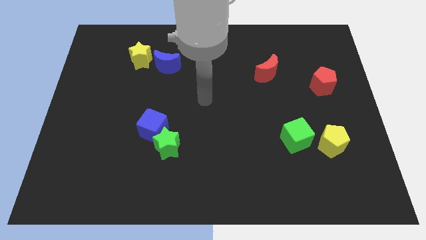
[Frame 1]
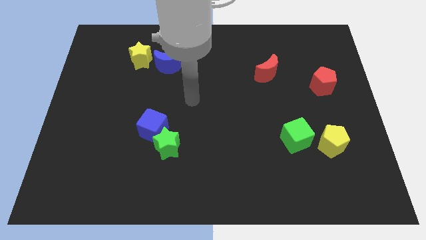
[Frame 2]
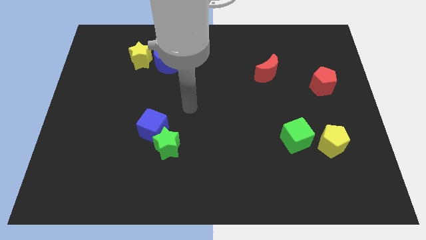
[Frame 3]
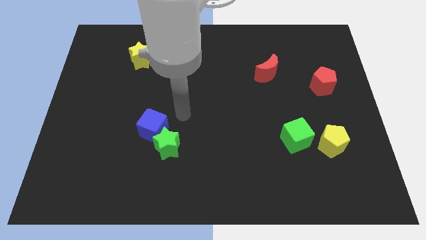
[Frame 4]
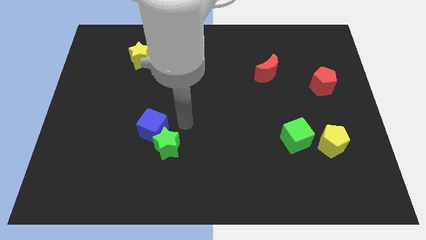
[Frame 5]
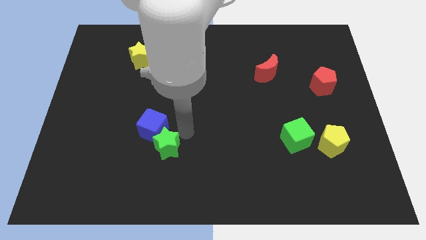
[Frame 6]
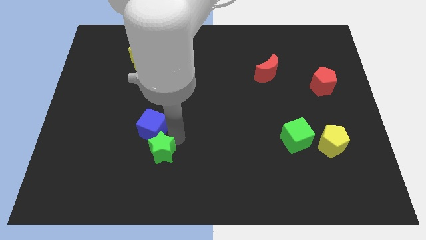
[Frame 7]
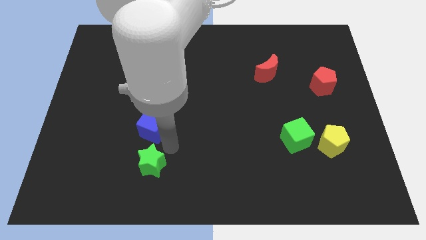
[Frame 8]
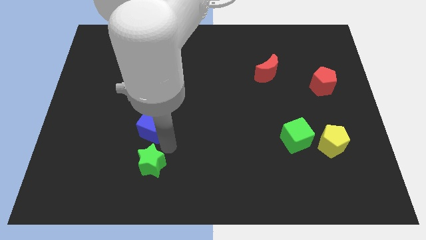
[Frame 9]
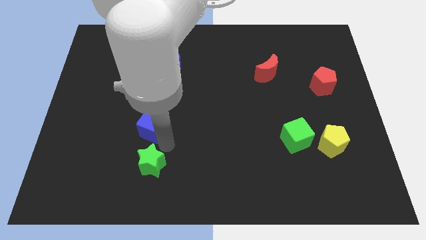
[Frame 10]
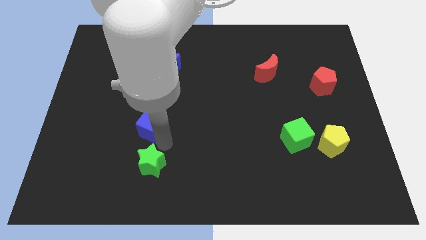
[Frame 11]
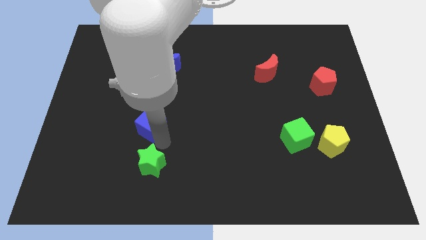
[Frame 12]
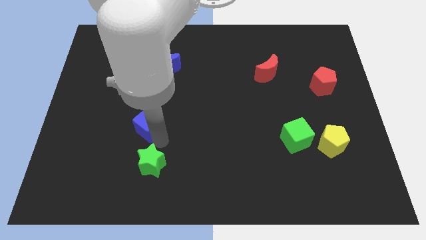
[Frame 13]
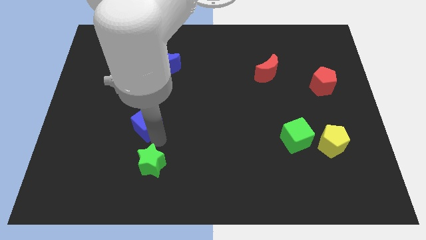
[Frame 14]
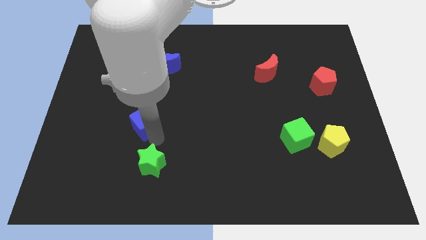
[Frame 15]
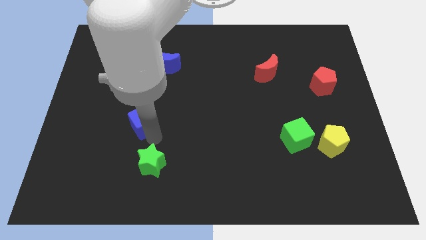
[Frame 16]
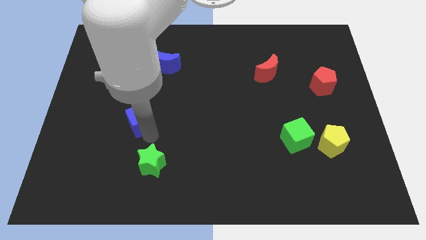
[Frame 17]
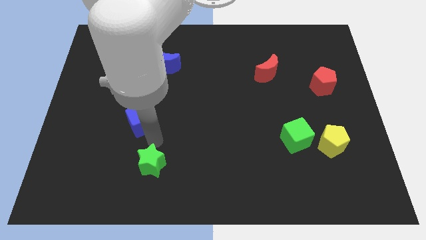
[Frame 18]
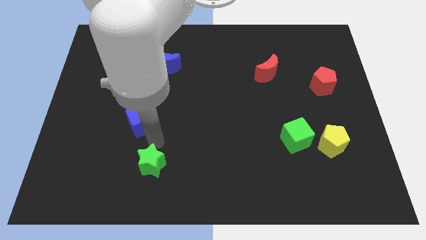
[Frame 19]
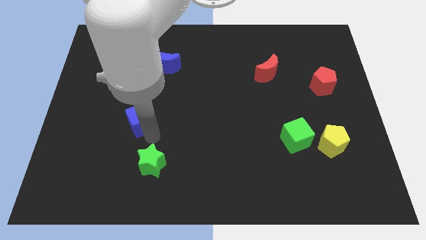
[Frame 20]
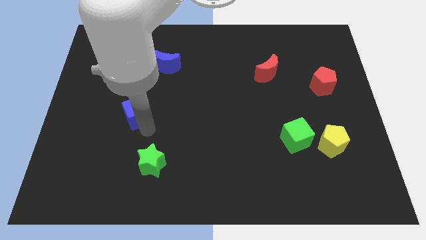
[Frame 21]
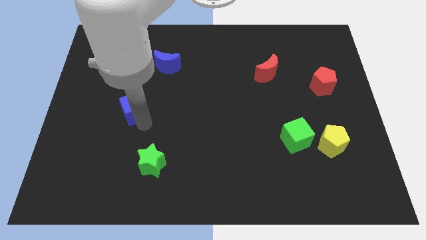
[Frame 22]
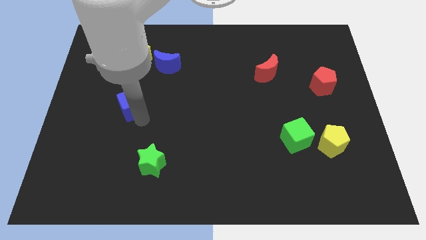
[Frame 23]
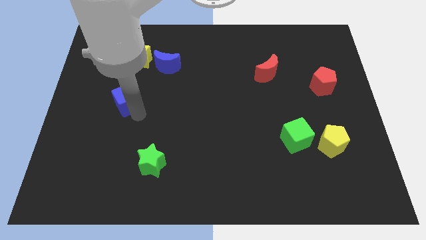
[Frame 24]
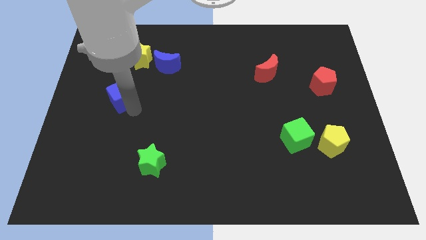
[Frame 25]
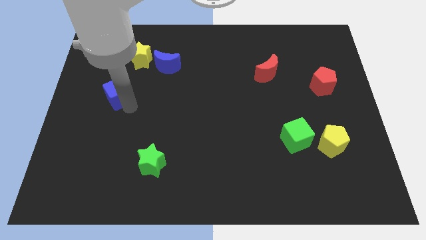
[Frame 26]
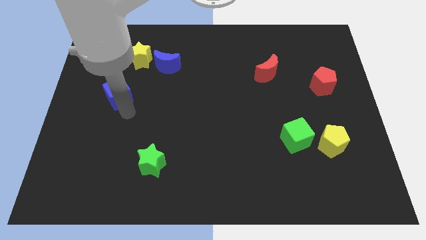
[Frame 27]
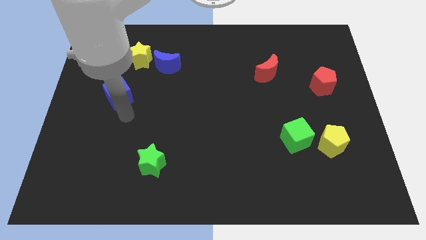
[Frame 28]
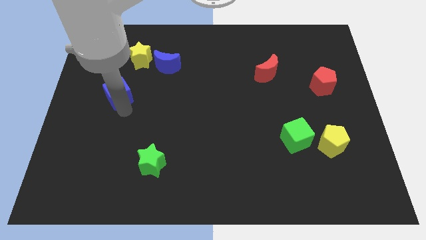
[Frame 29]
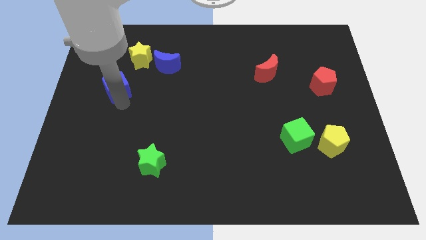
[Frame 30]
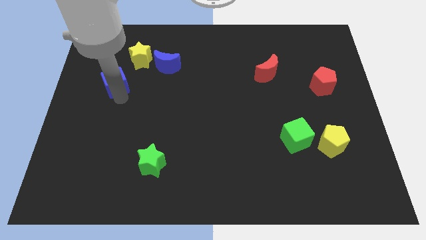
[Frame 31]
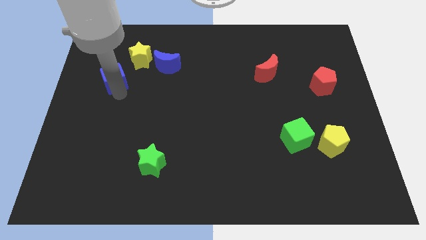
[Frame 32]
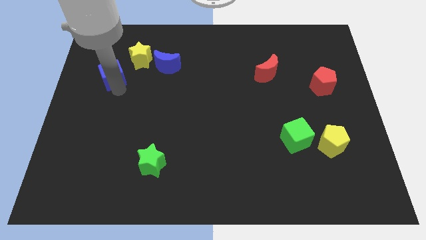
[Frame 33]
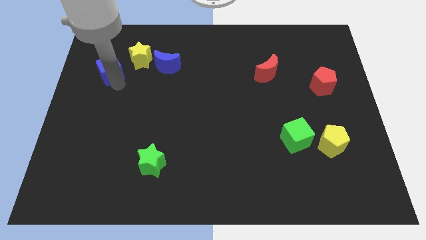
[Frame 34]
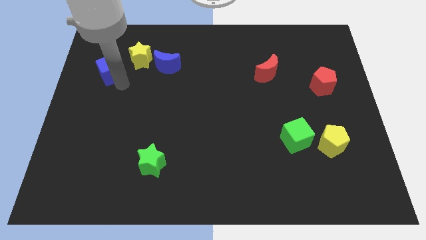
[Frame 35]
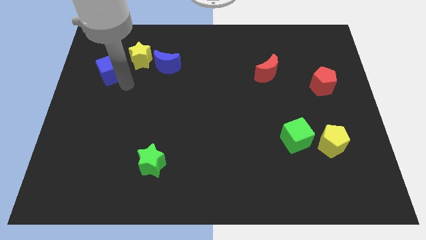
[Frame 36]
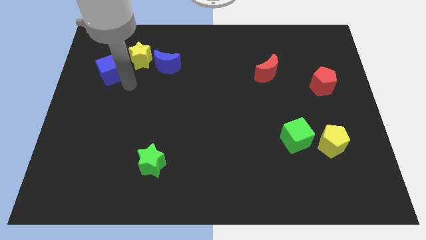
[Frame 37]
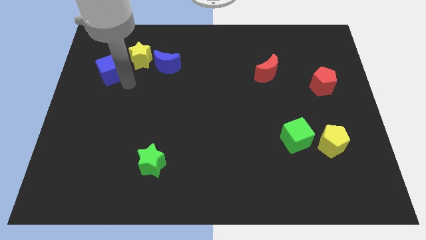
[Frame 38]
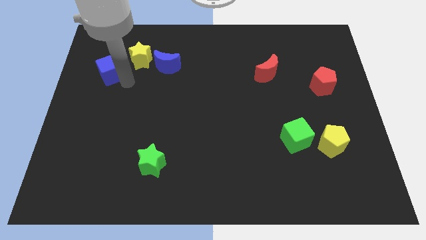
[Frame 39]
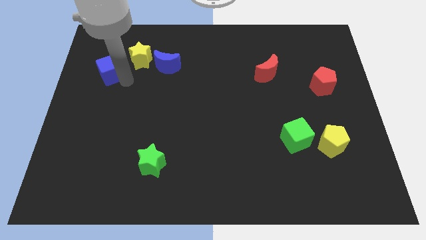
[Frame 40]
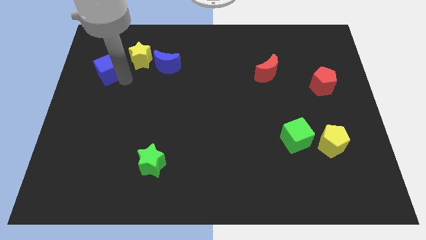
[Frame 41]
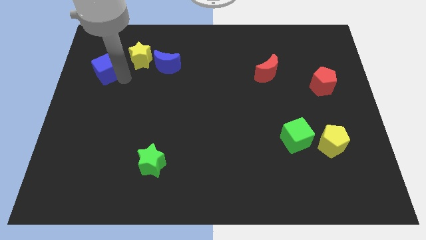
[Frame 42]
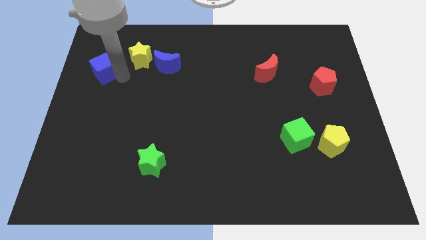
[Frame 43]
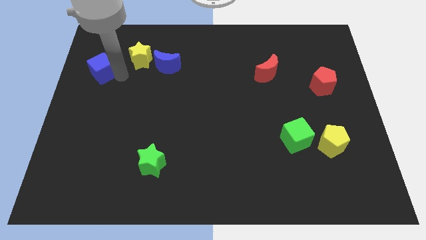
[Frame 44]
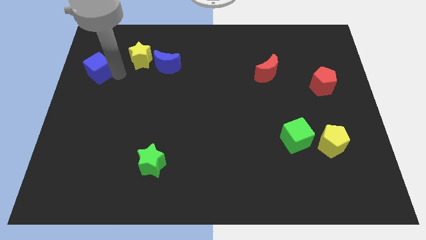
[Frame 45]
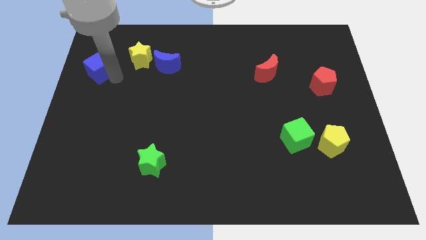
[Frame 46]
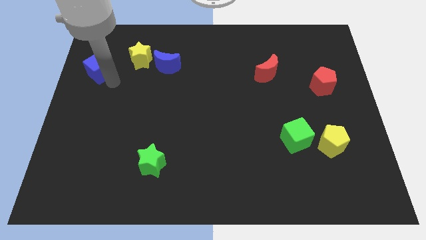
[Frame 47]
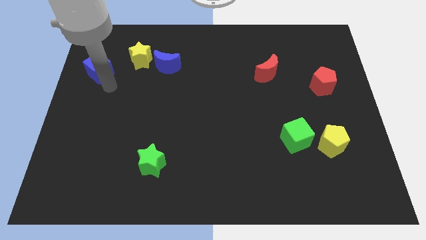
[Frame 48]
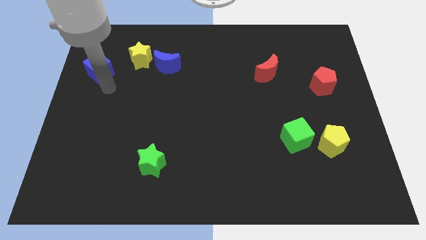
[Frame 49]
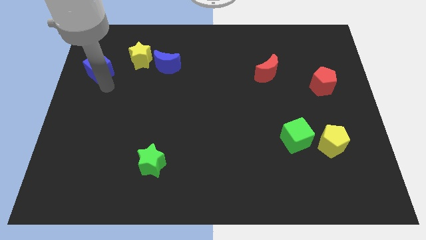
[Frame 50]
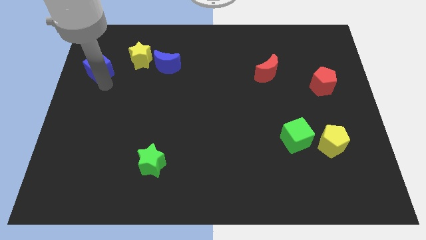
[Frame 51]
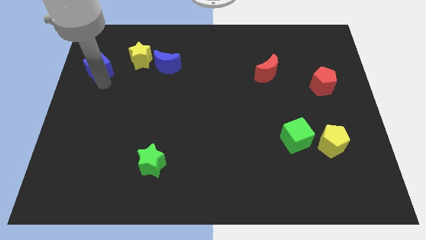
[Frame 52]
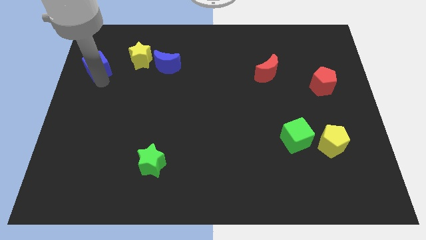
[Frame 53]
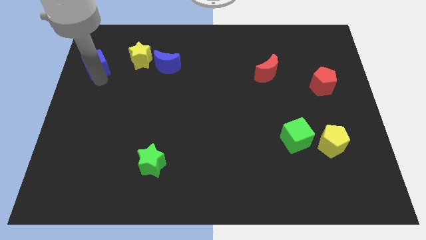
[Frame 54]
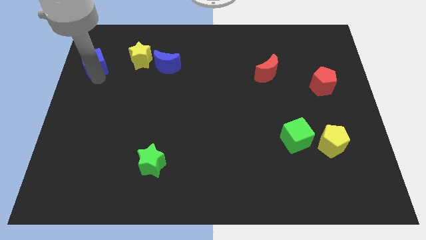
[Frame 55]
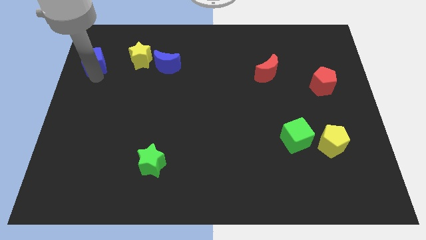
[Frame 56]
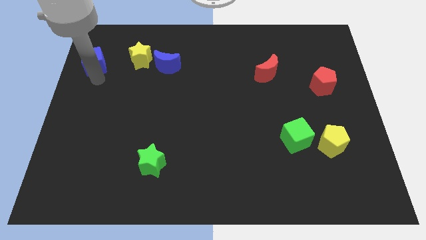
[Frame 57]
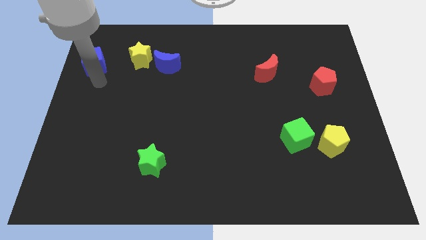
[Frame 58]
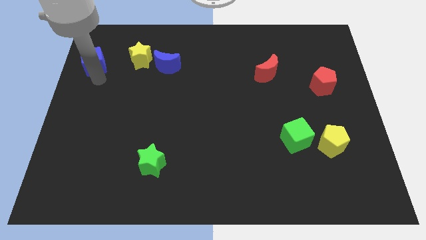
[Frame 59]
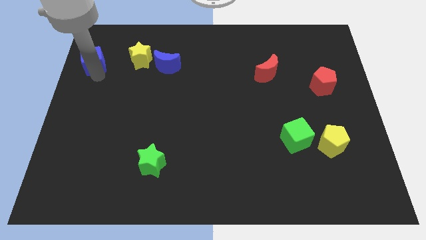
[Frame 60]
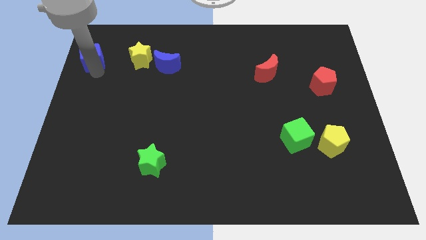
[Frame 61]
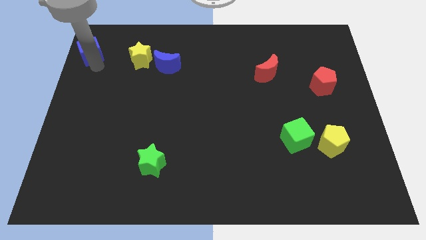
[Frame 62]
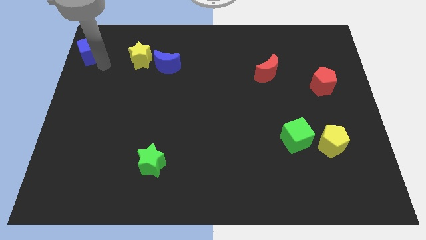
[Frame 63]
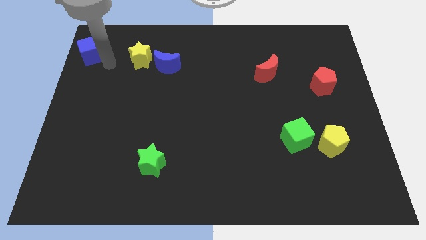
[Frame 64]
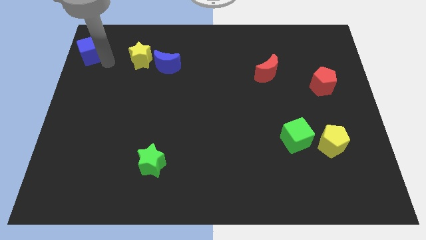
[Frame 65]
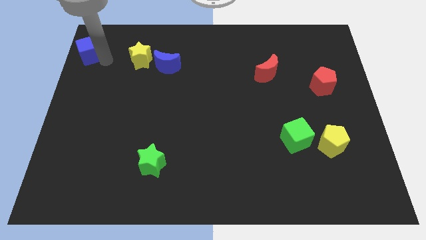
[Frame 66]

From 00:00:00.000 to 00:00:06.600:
slide the blue cube to the top left of the board
